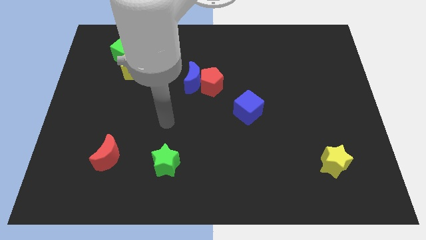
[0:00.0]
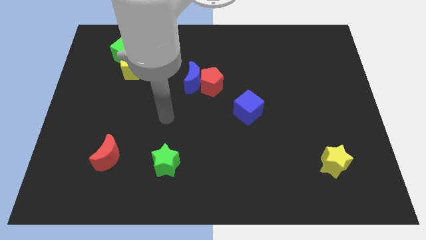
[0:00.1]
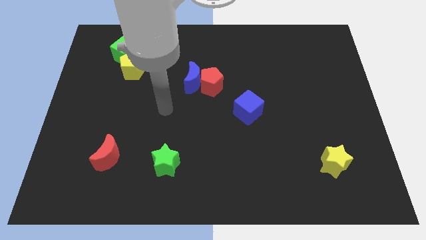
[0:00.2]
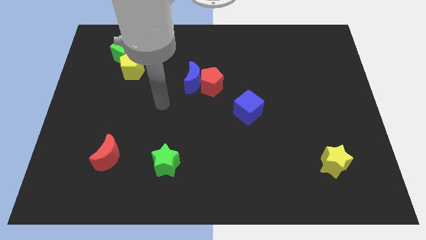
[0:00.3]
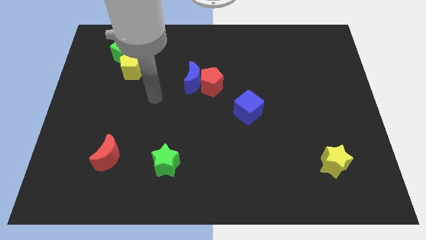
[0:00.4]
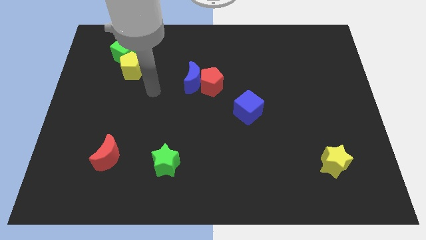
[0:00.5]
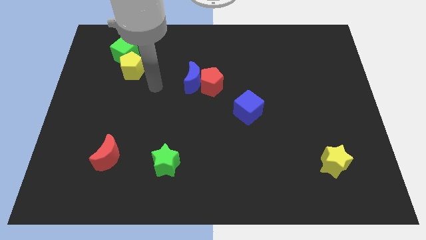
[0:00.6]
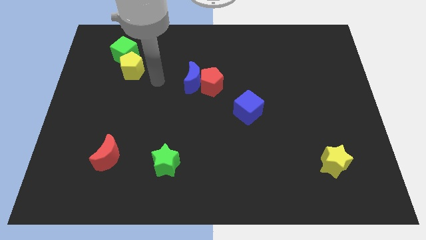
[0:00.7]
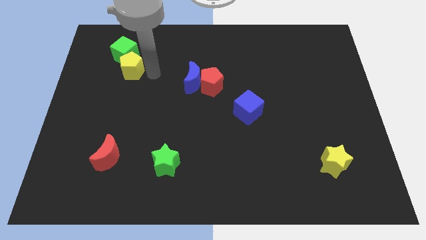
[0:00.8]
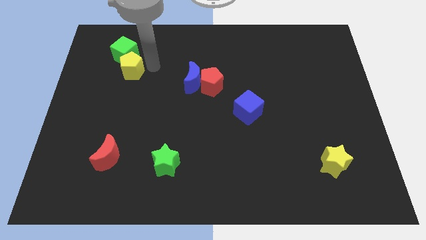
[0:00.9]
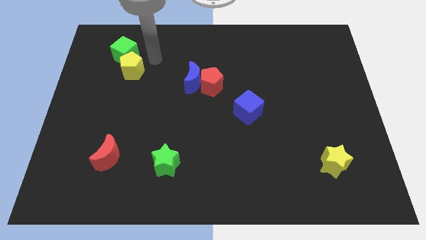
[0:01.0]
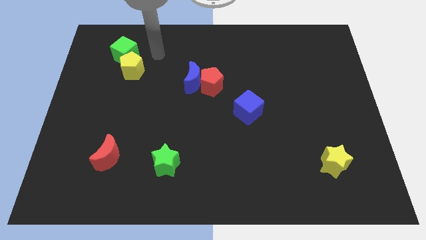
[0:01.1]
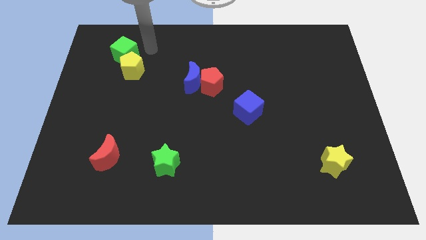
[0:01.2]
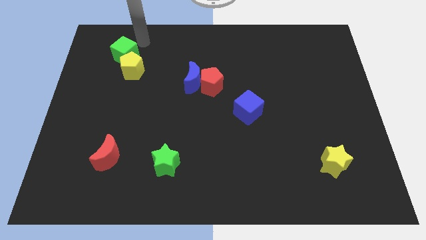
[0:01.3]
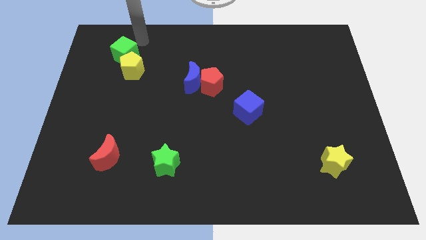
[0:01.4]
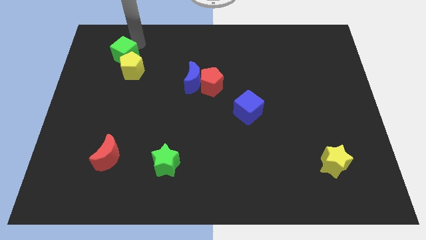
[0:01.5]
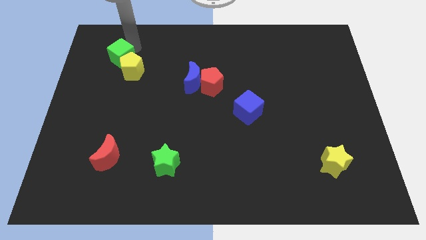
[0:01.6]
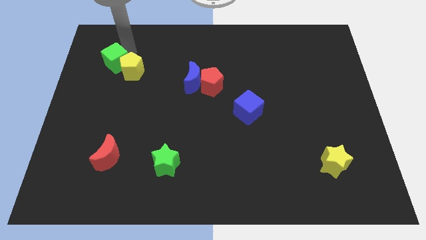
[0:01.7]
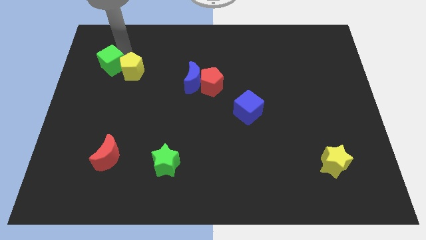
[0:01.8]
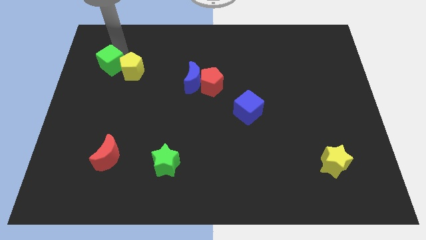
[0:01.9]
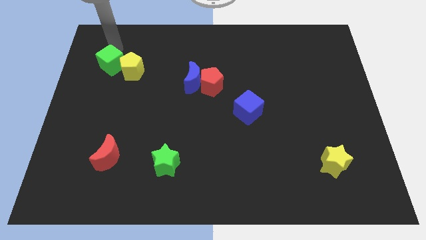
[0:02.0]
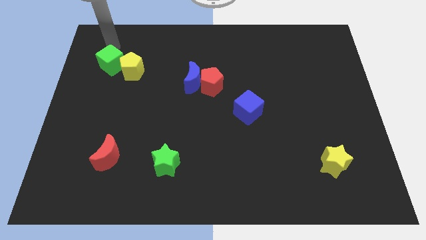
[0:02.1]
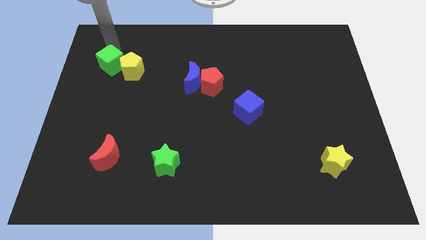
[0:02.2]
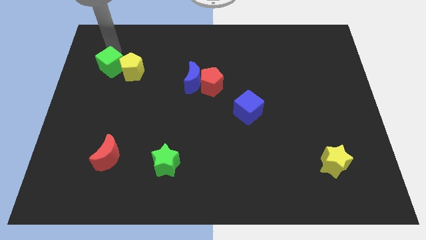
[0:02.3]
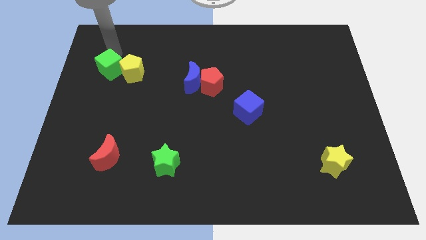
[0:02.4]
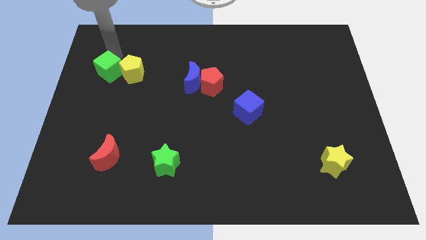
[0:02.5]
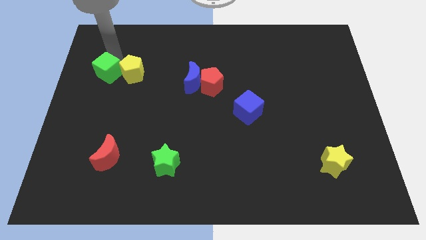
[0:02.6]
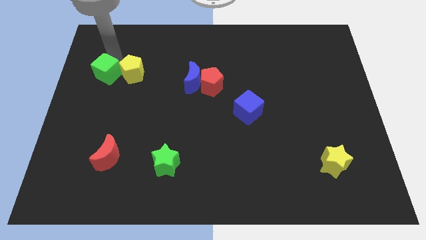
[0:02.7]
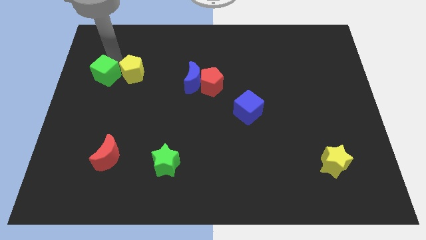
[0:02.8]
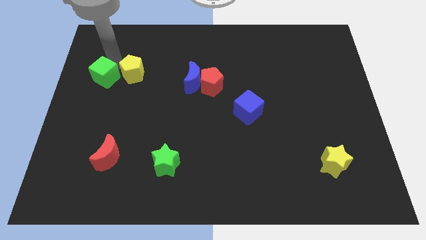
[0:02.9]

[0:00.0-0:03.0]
move the green cube a little bit down

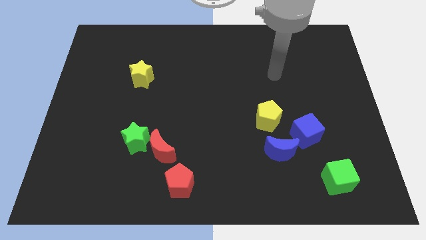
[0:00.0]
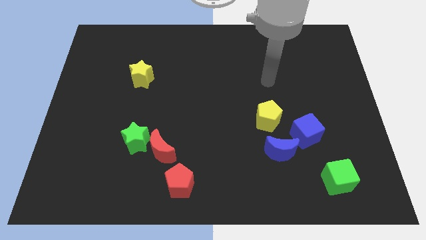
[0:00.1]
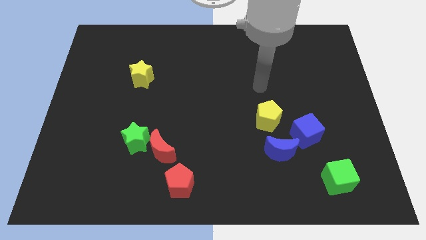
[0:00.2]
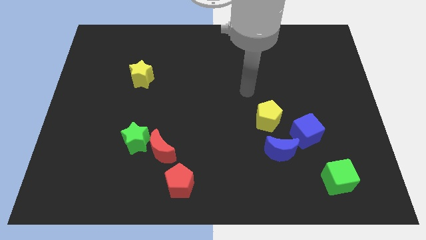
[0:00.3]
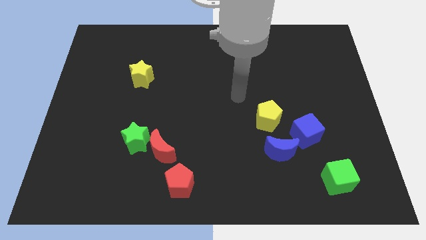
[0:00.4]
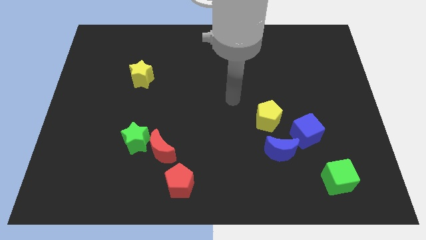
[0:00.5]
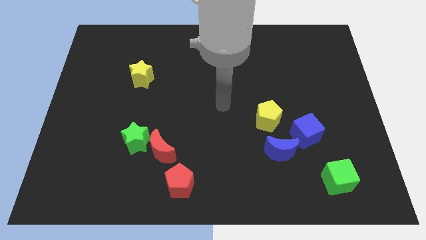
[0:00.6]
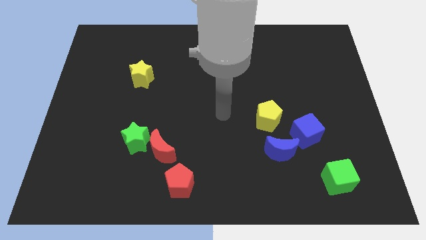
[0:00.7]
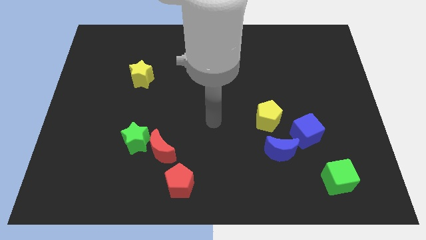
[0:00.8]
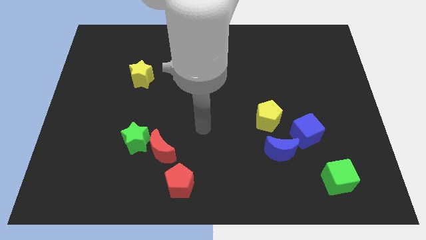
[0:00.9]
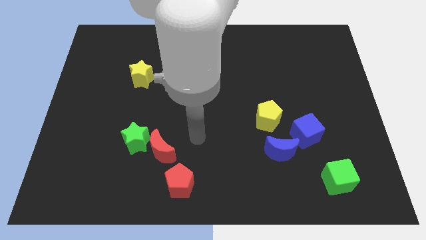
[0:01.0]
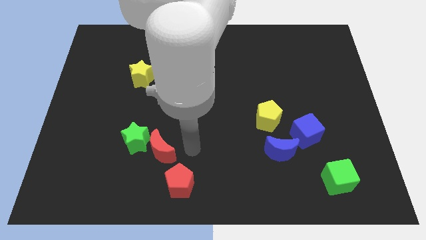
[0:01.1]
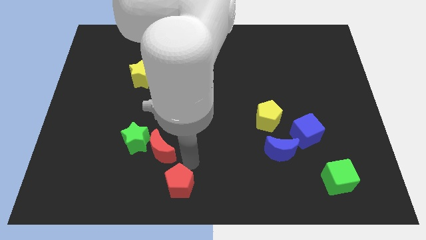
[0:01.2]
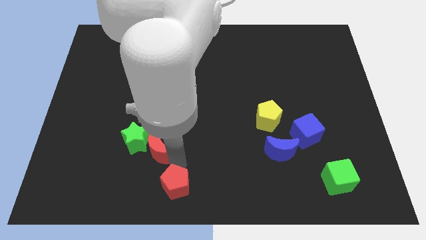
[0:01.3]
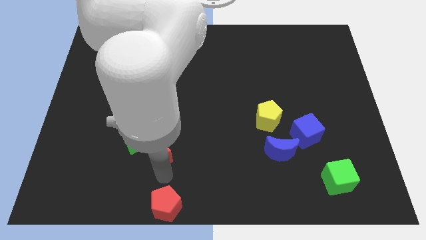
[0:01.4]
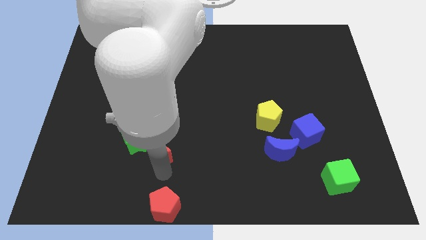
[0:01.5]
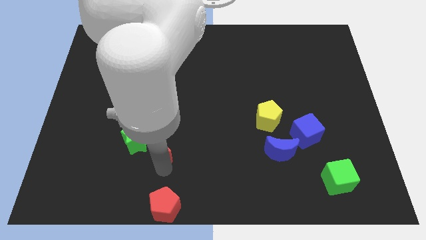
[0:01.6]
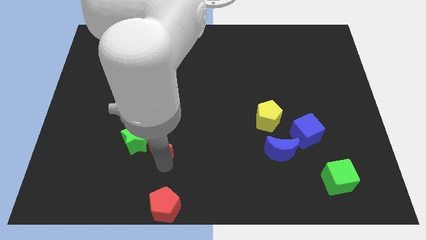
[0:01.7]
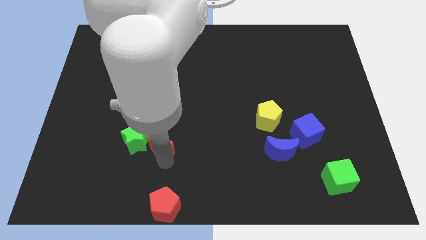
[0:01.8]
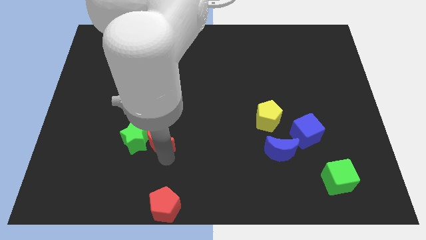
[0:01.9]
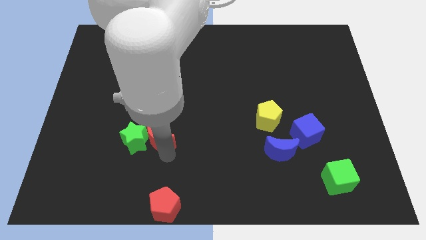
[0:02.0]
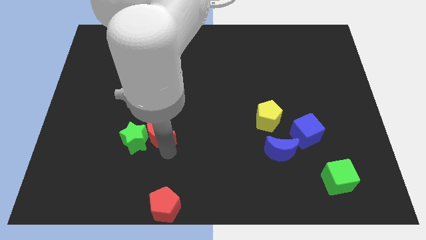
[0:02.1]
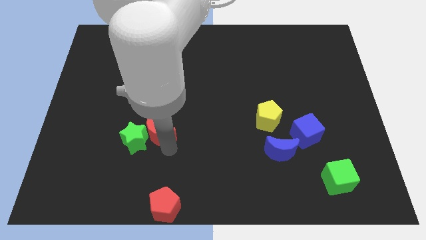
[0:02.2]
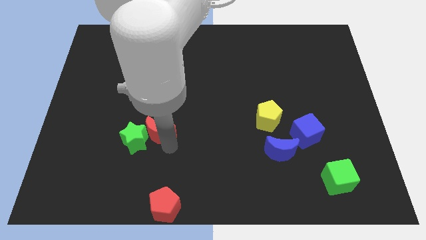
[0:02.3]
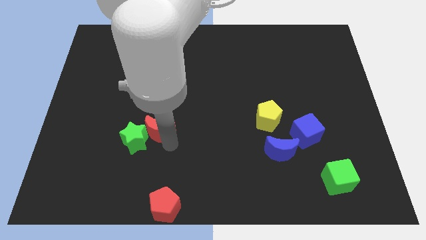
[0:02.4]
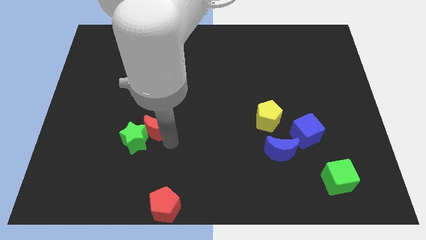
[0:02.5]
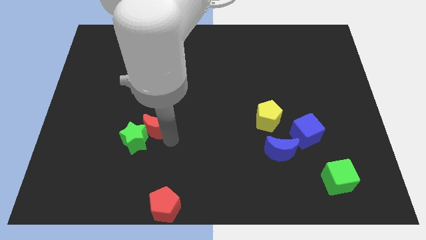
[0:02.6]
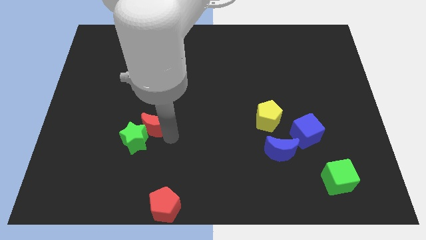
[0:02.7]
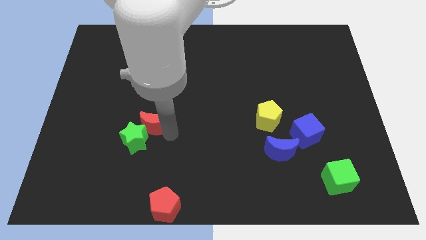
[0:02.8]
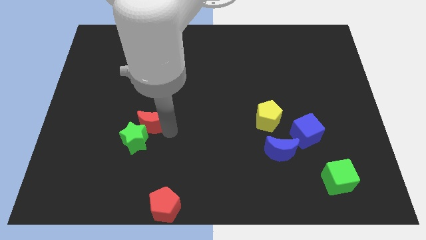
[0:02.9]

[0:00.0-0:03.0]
slightly push the red moon upwards

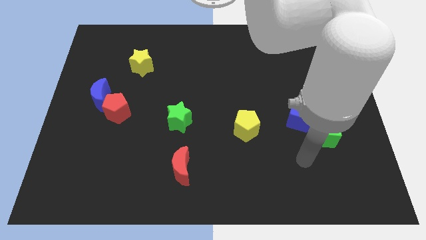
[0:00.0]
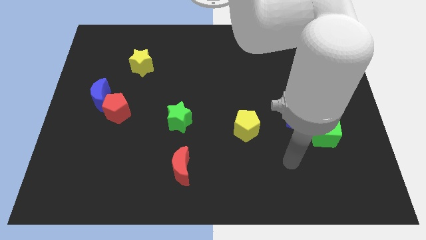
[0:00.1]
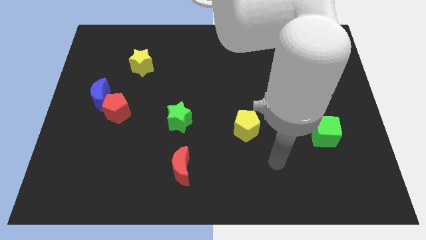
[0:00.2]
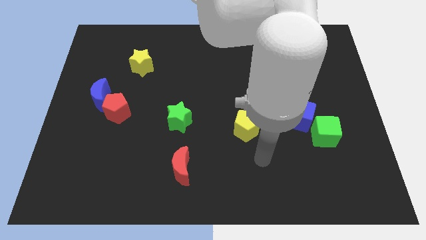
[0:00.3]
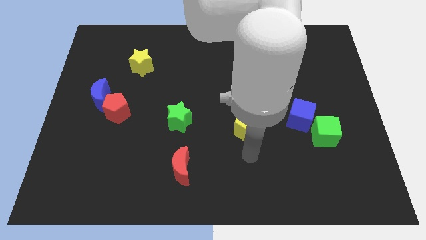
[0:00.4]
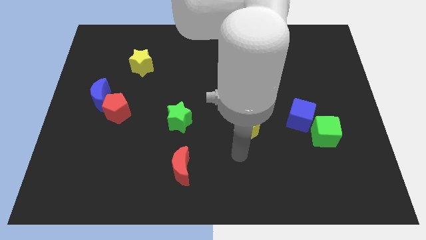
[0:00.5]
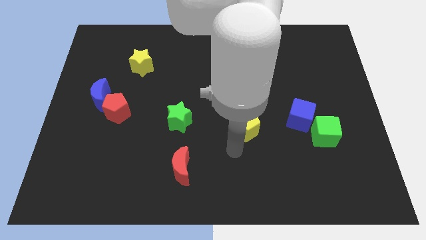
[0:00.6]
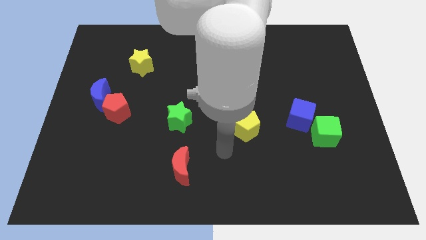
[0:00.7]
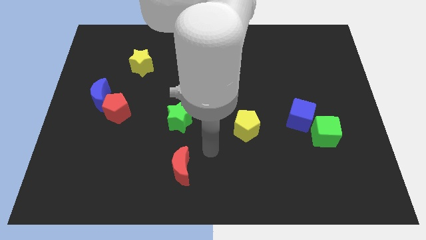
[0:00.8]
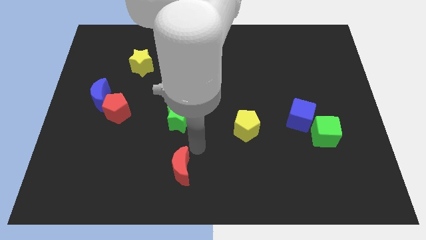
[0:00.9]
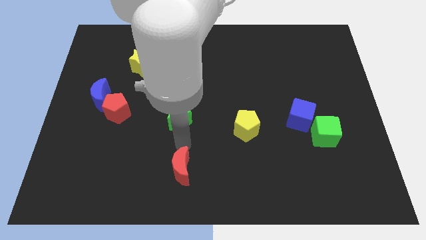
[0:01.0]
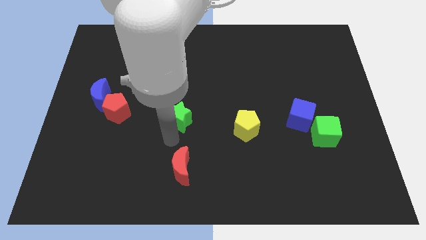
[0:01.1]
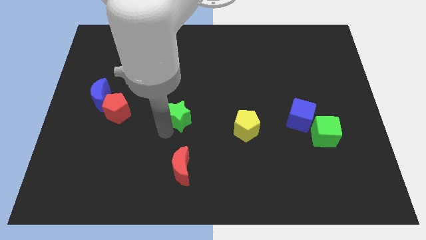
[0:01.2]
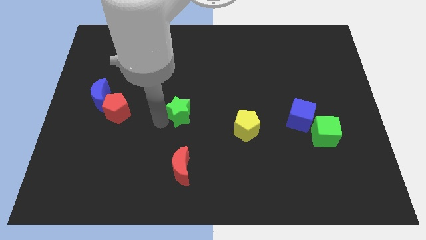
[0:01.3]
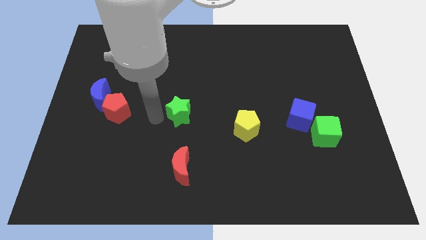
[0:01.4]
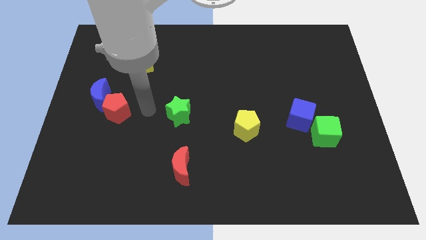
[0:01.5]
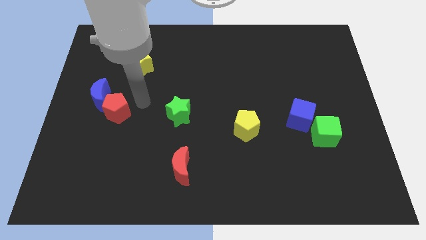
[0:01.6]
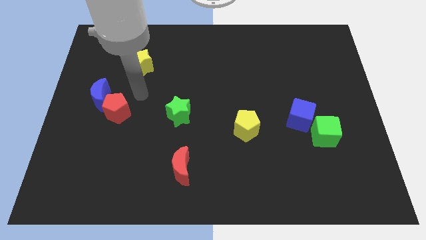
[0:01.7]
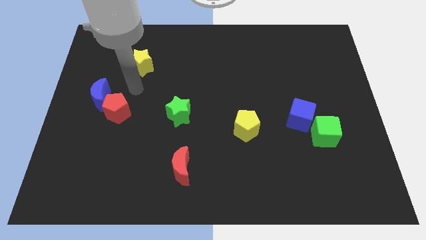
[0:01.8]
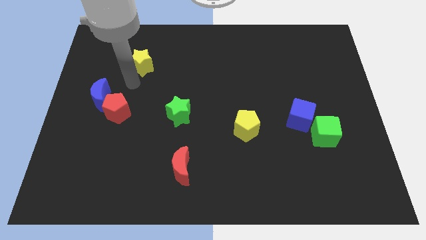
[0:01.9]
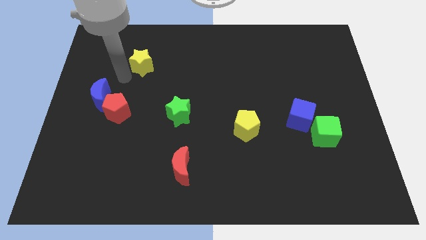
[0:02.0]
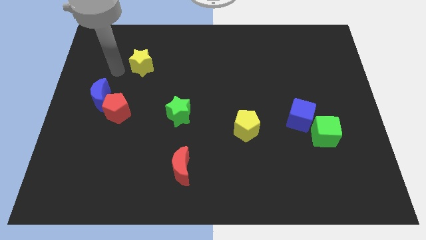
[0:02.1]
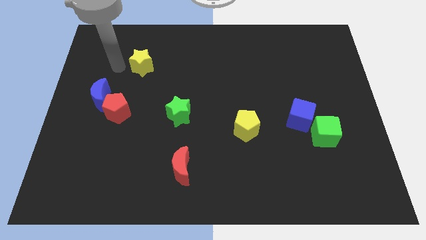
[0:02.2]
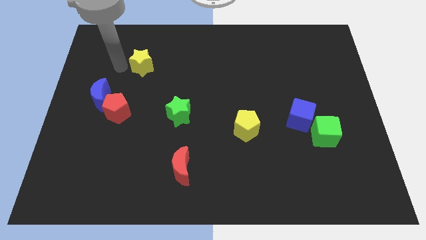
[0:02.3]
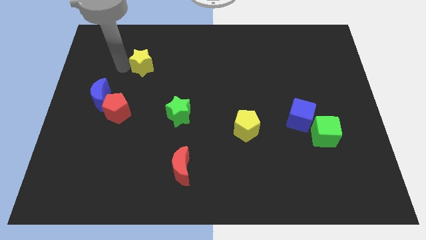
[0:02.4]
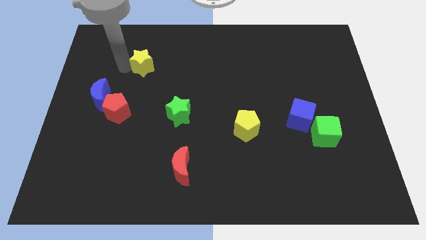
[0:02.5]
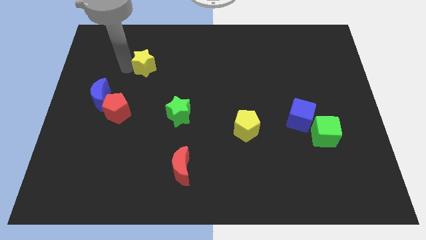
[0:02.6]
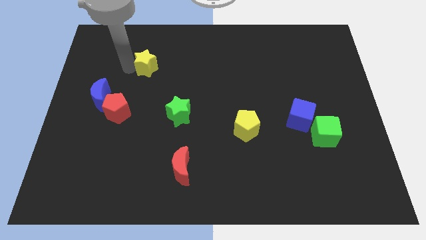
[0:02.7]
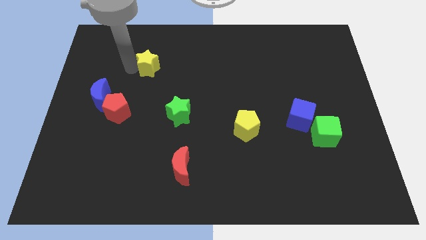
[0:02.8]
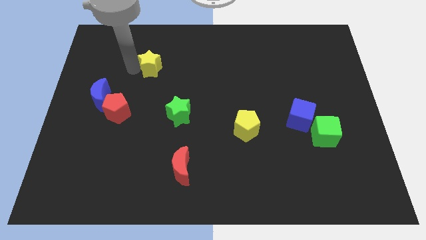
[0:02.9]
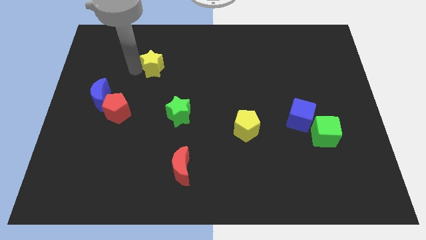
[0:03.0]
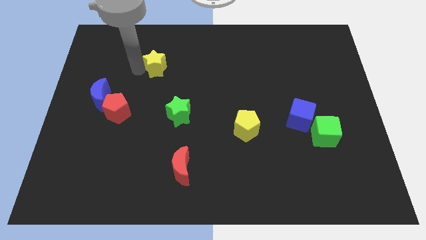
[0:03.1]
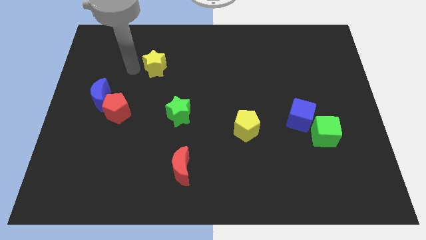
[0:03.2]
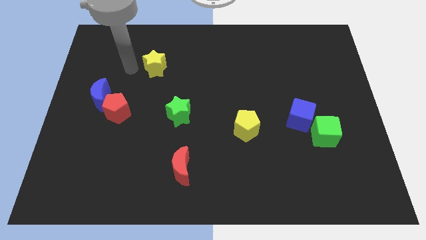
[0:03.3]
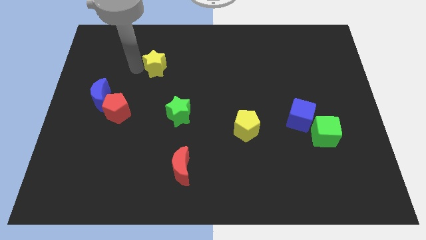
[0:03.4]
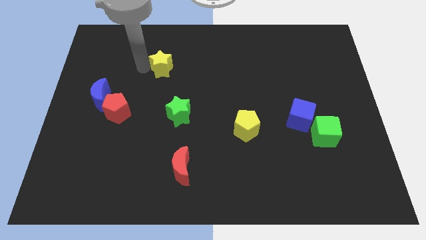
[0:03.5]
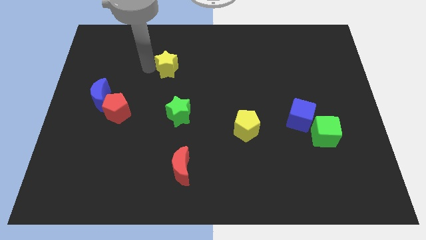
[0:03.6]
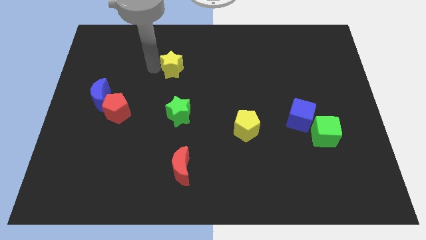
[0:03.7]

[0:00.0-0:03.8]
move the yellow star slightly to the right
